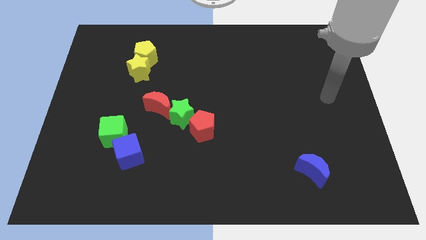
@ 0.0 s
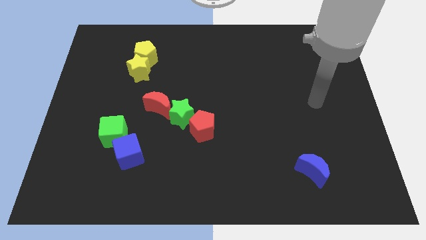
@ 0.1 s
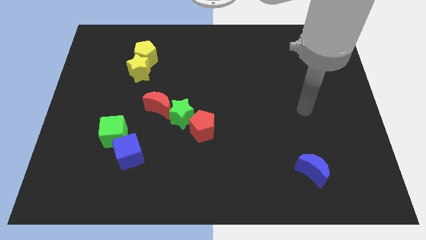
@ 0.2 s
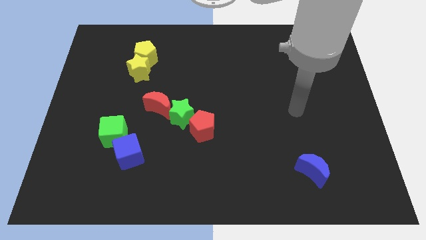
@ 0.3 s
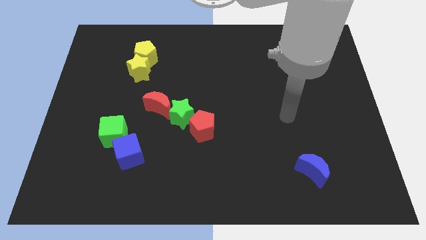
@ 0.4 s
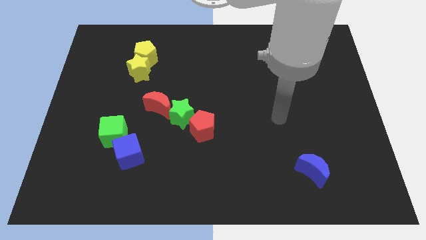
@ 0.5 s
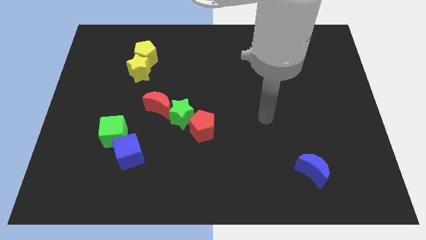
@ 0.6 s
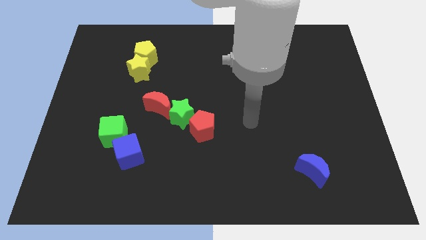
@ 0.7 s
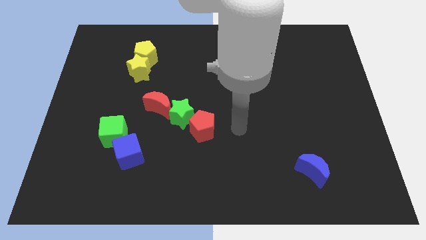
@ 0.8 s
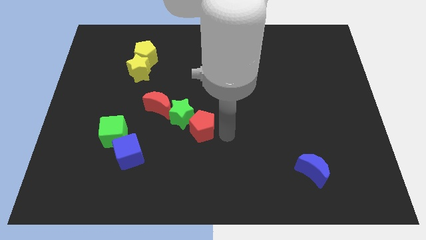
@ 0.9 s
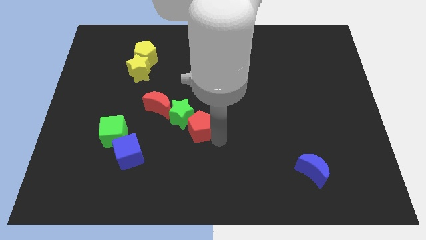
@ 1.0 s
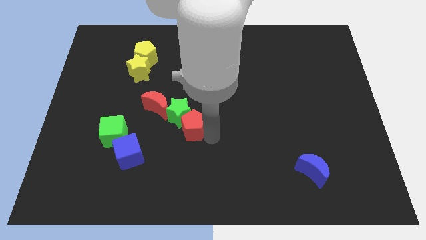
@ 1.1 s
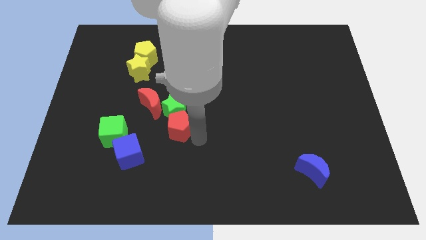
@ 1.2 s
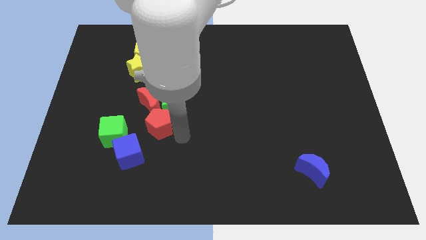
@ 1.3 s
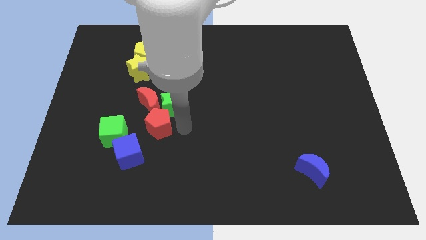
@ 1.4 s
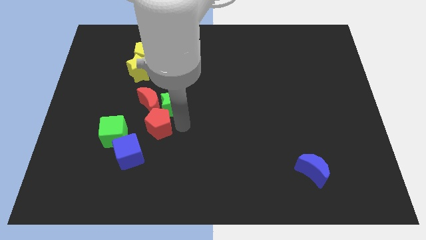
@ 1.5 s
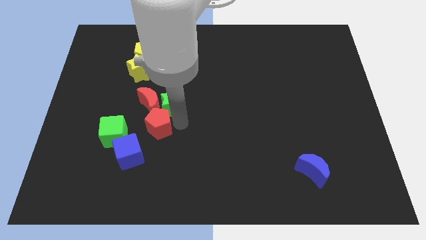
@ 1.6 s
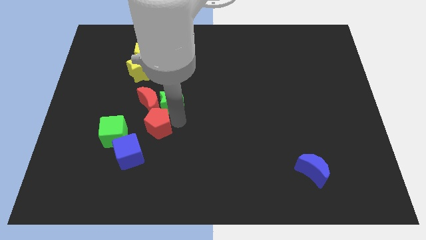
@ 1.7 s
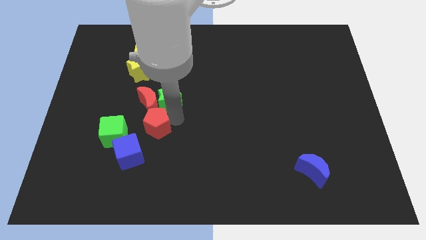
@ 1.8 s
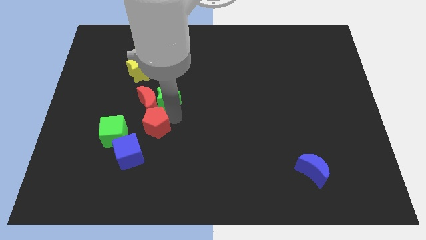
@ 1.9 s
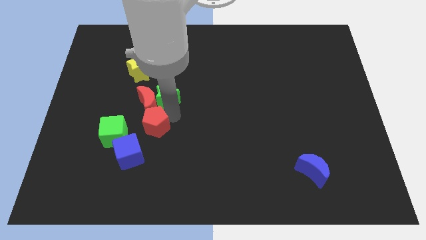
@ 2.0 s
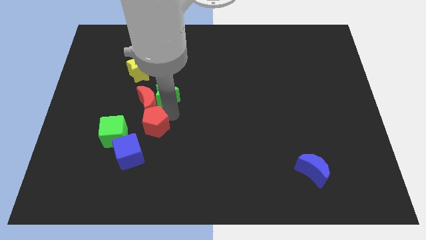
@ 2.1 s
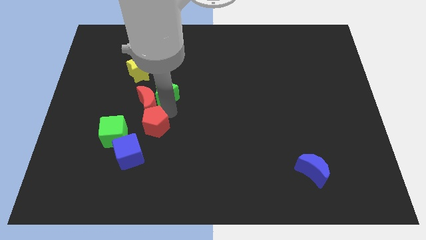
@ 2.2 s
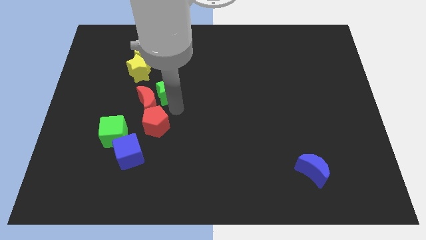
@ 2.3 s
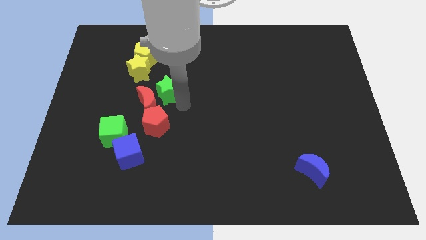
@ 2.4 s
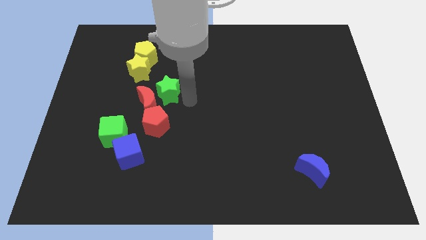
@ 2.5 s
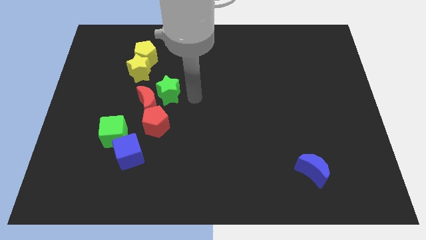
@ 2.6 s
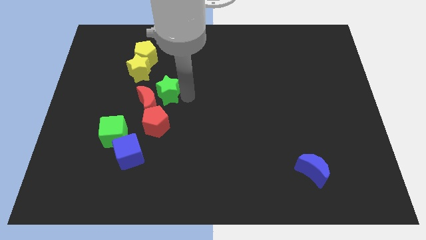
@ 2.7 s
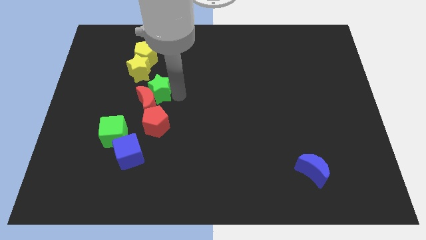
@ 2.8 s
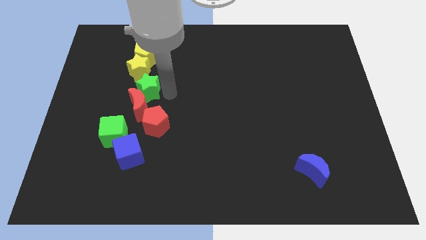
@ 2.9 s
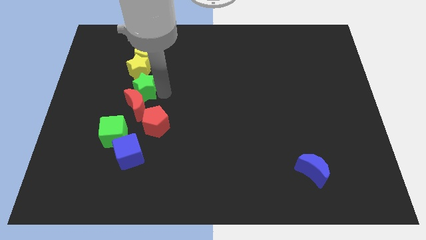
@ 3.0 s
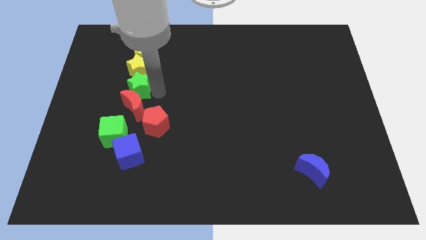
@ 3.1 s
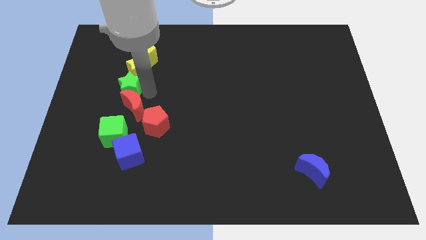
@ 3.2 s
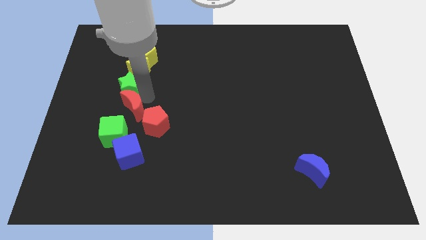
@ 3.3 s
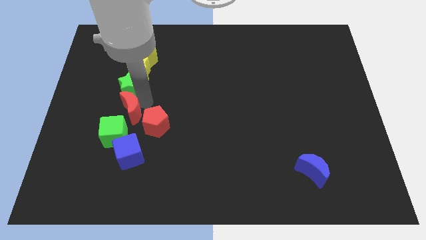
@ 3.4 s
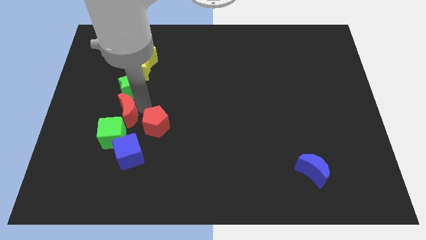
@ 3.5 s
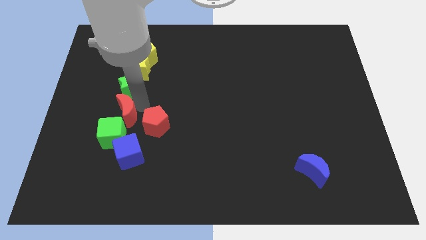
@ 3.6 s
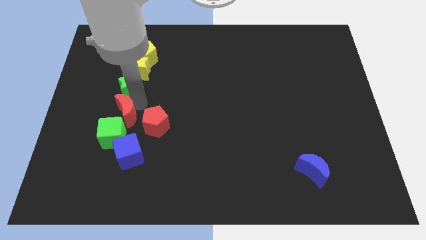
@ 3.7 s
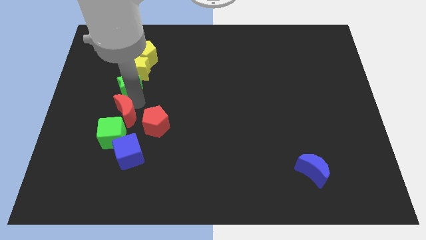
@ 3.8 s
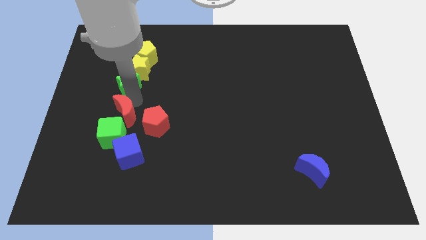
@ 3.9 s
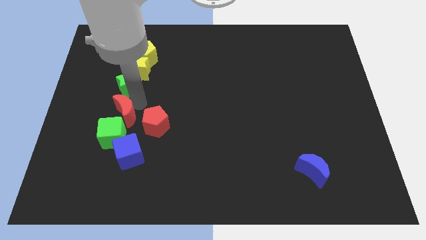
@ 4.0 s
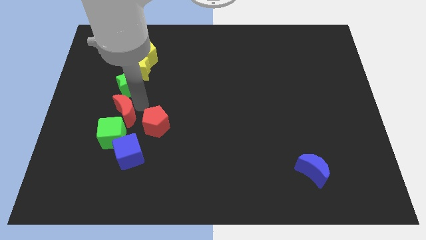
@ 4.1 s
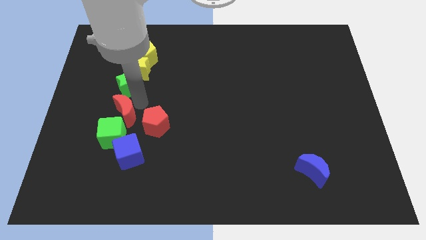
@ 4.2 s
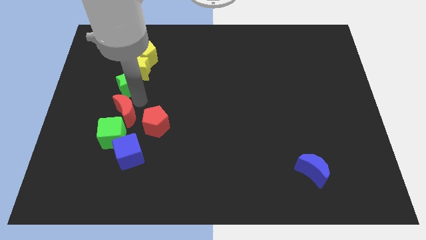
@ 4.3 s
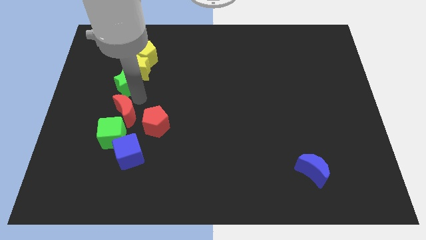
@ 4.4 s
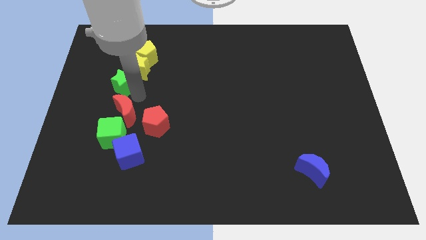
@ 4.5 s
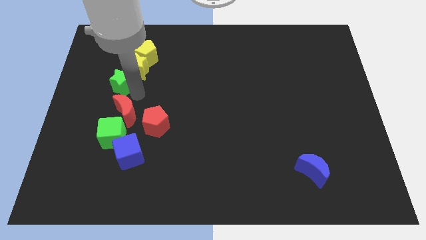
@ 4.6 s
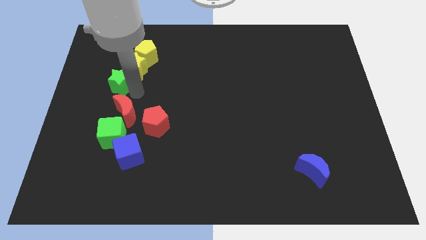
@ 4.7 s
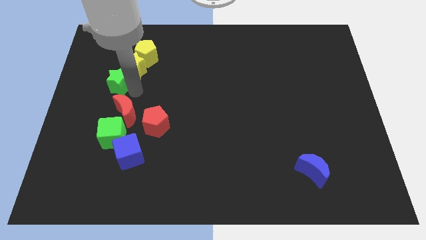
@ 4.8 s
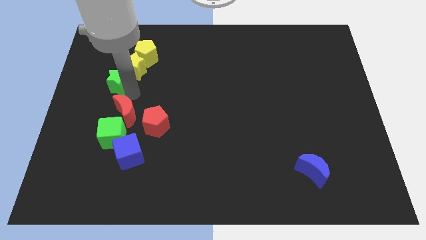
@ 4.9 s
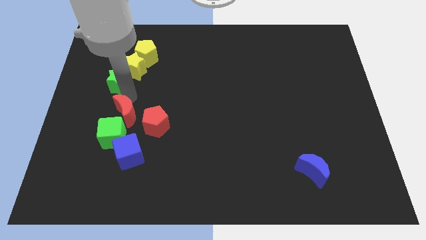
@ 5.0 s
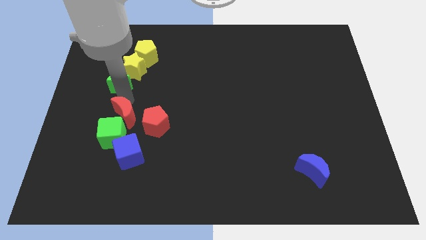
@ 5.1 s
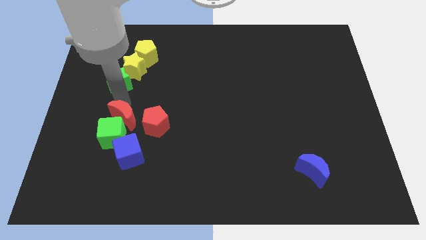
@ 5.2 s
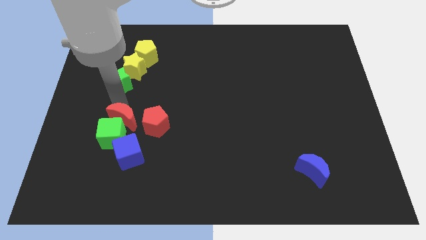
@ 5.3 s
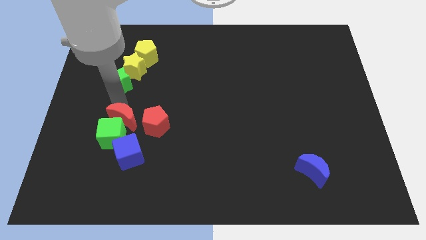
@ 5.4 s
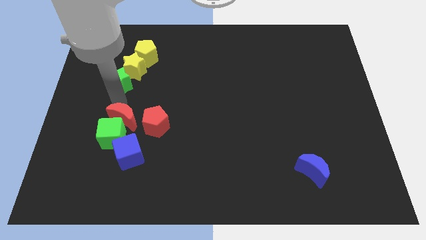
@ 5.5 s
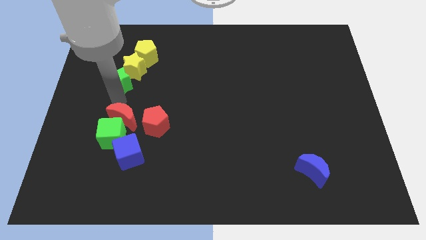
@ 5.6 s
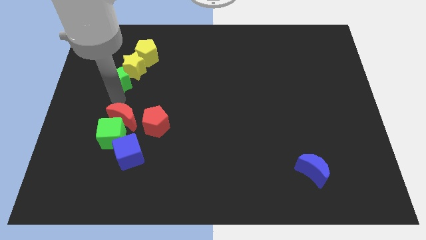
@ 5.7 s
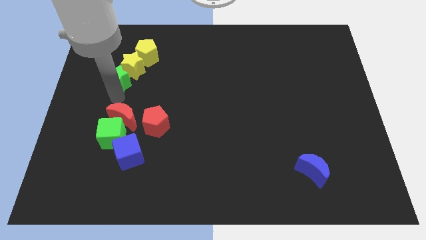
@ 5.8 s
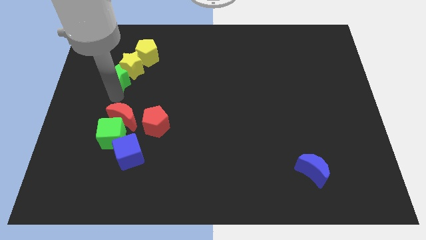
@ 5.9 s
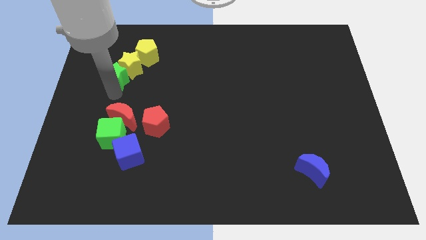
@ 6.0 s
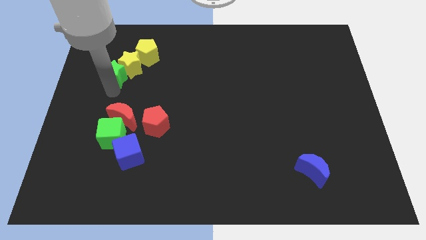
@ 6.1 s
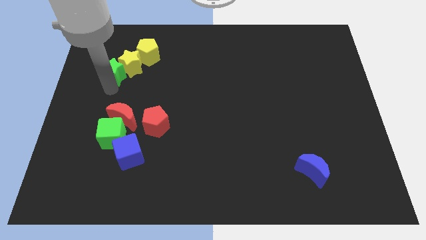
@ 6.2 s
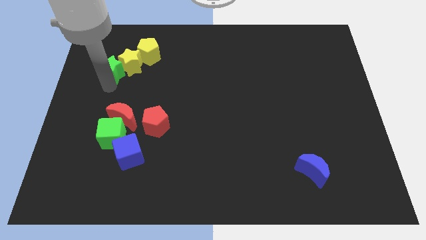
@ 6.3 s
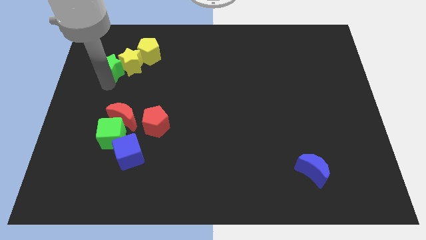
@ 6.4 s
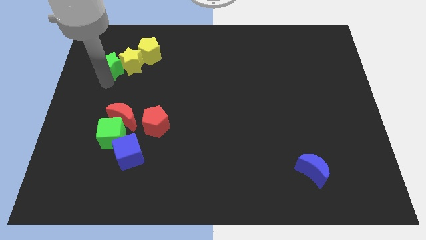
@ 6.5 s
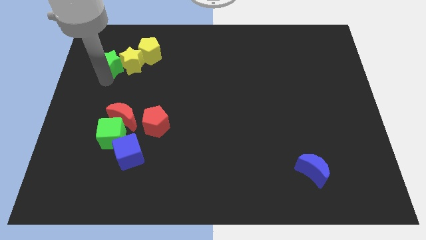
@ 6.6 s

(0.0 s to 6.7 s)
move the green star to the left side of the yellow pentagon
